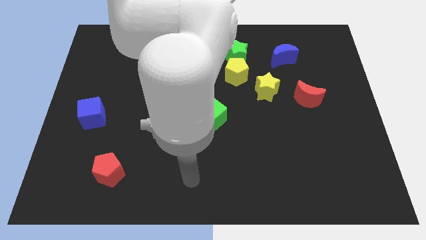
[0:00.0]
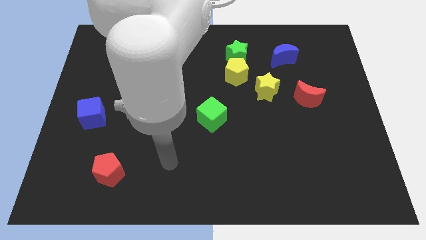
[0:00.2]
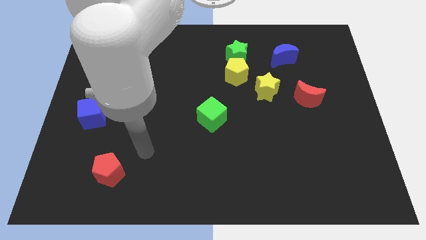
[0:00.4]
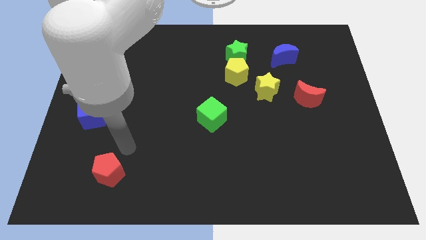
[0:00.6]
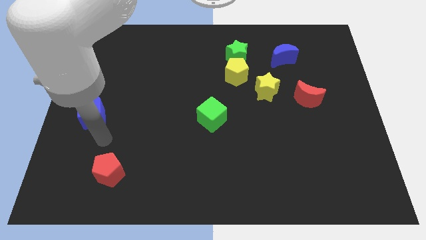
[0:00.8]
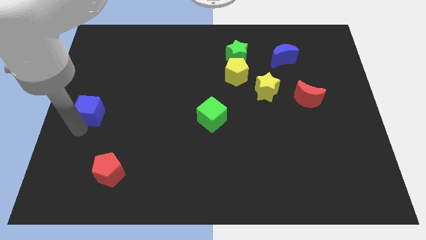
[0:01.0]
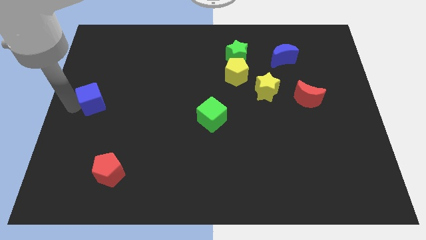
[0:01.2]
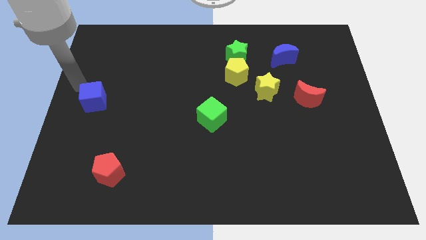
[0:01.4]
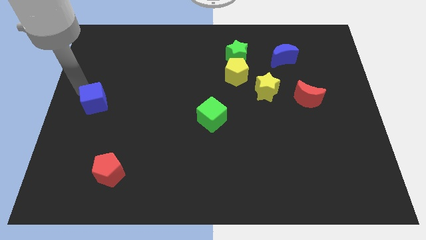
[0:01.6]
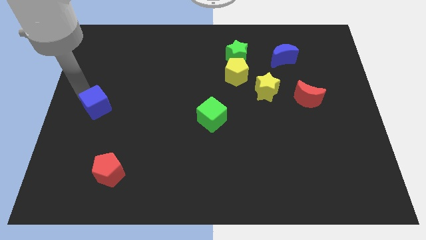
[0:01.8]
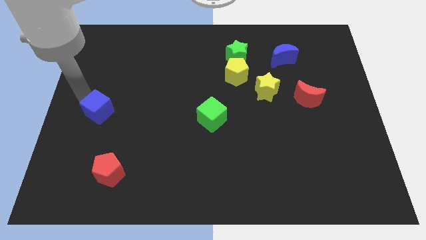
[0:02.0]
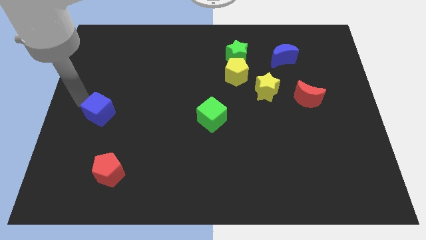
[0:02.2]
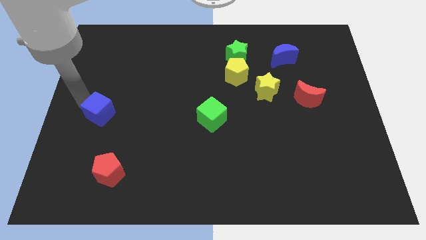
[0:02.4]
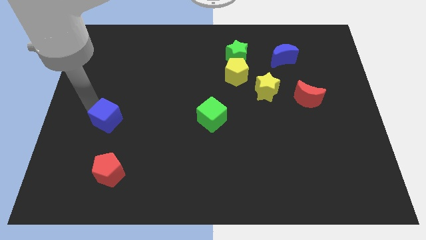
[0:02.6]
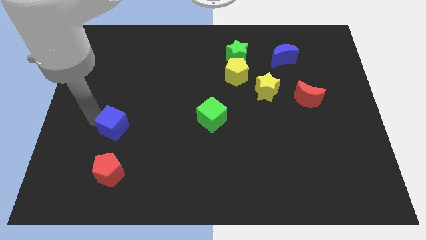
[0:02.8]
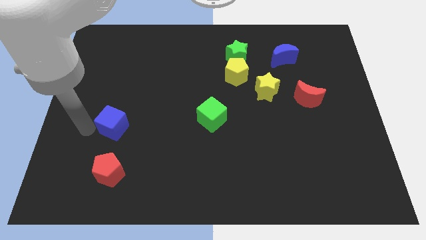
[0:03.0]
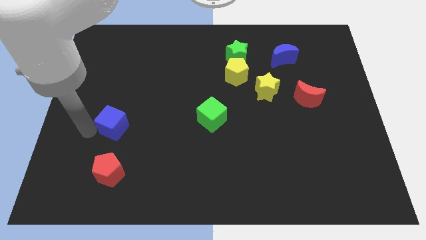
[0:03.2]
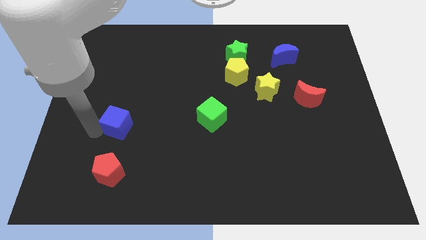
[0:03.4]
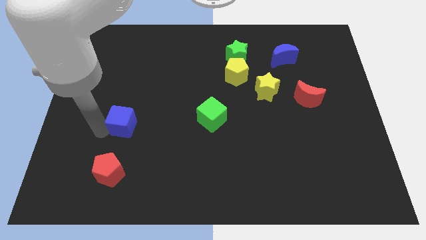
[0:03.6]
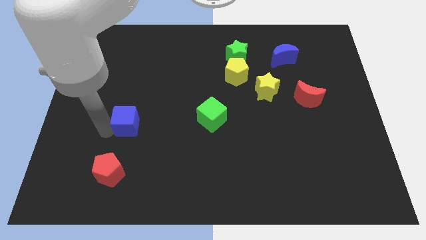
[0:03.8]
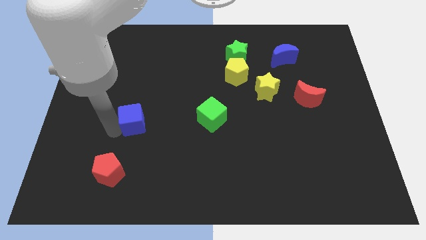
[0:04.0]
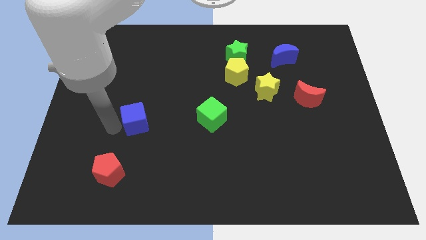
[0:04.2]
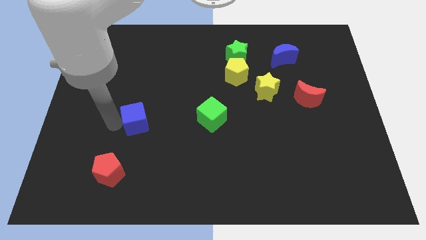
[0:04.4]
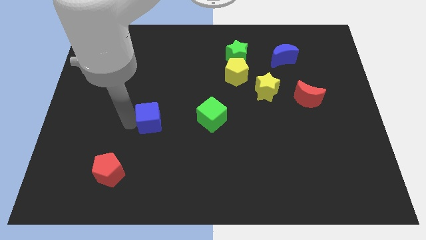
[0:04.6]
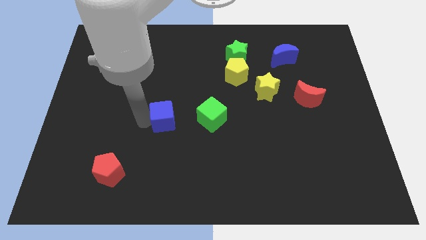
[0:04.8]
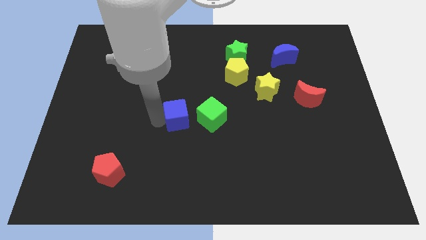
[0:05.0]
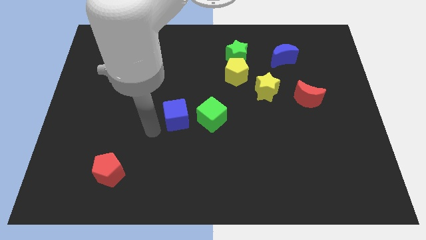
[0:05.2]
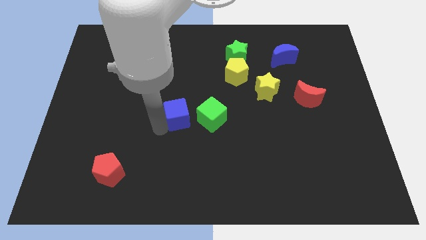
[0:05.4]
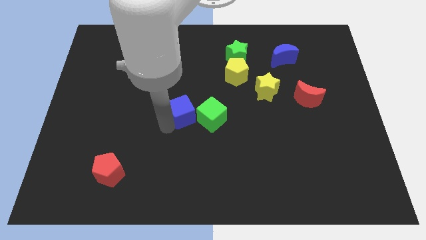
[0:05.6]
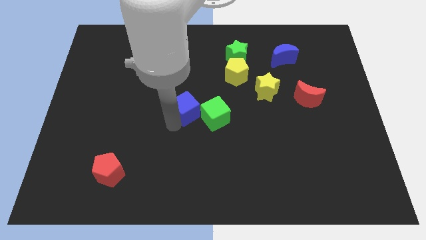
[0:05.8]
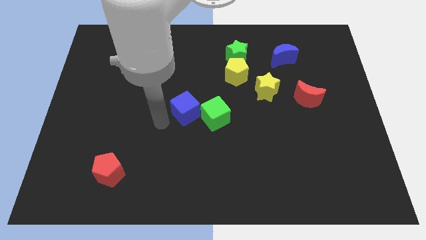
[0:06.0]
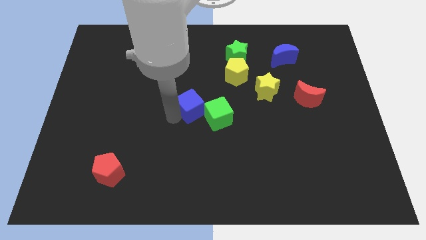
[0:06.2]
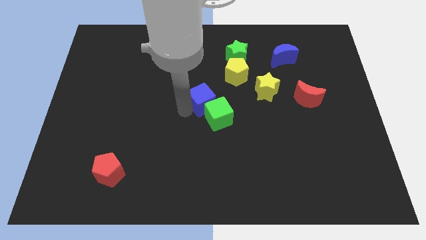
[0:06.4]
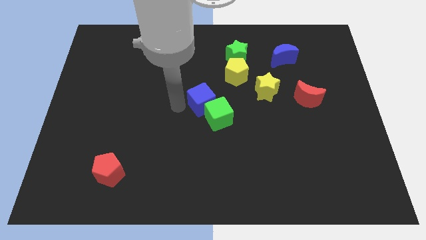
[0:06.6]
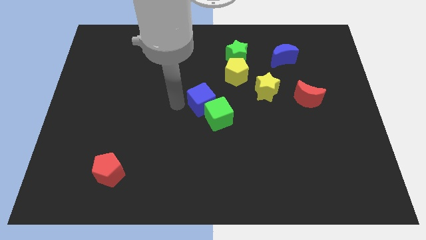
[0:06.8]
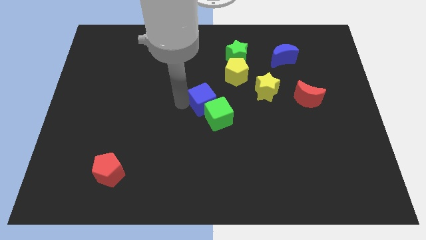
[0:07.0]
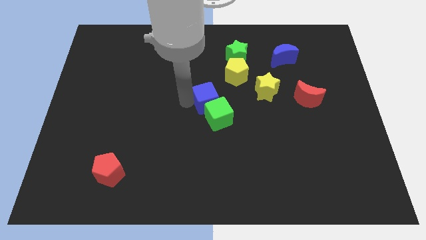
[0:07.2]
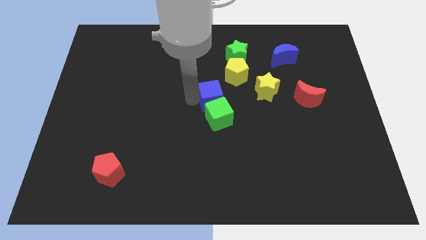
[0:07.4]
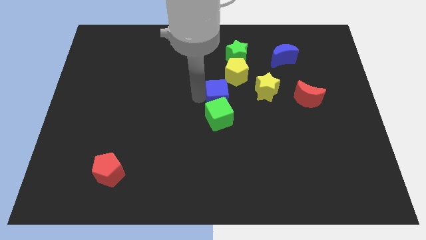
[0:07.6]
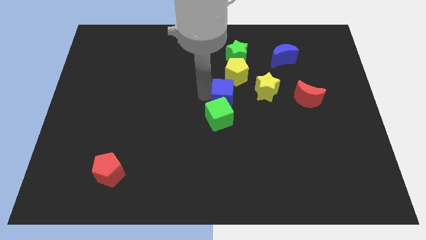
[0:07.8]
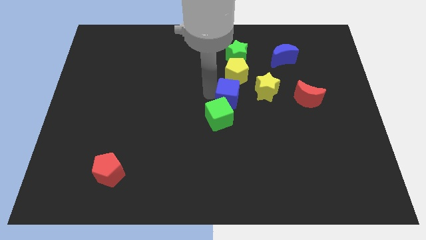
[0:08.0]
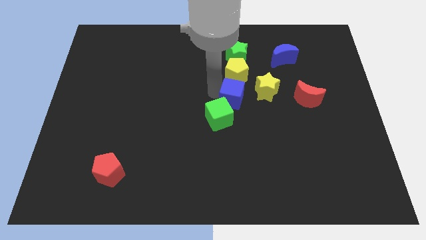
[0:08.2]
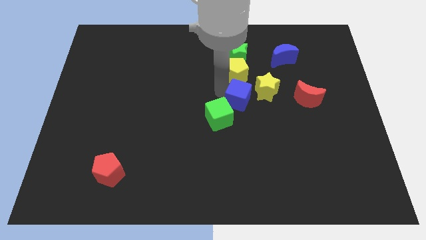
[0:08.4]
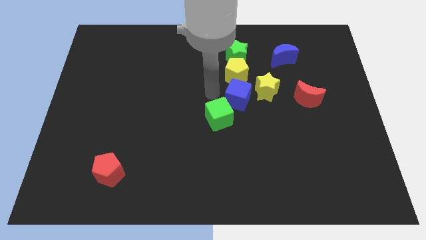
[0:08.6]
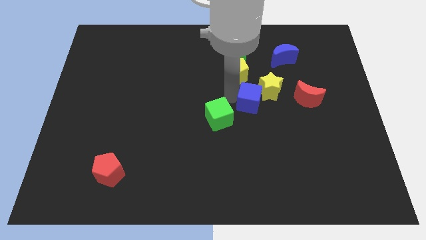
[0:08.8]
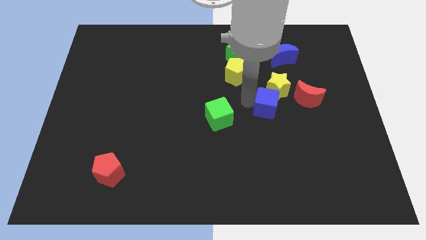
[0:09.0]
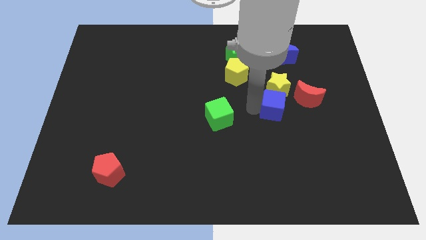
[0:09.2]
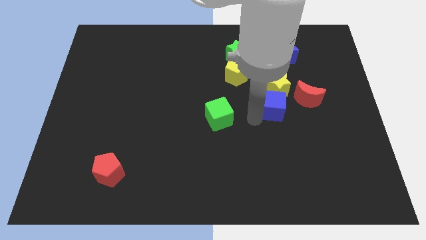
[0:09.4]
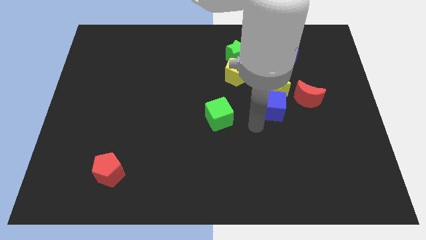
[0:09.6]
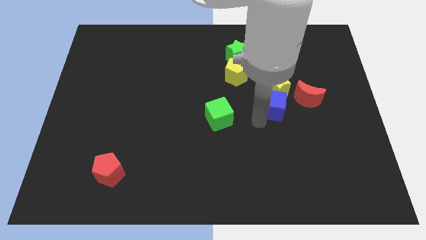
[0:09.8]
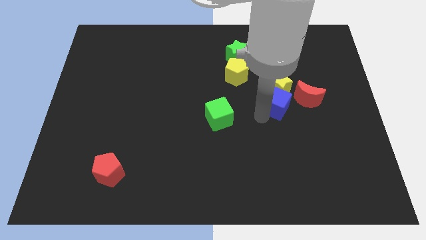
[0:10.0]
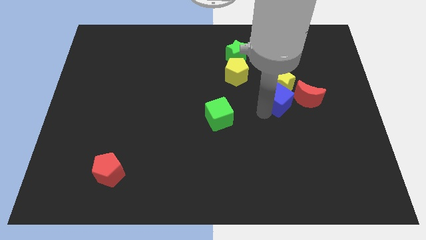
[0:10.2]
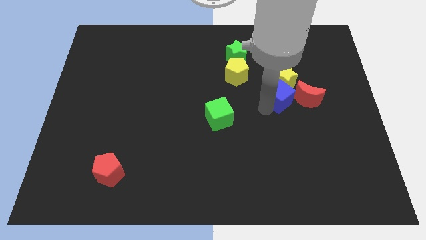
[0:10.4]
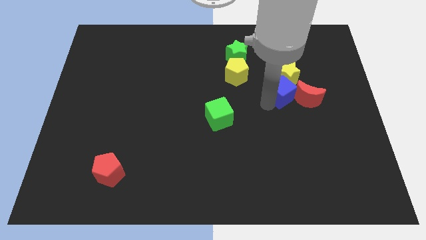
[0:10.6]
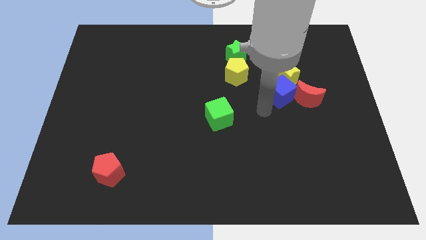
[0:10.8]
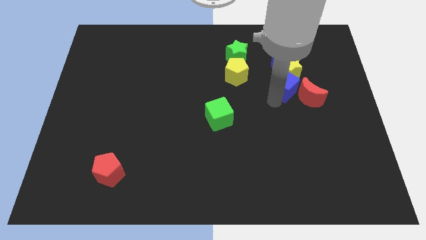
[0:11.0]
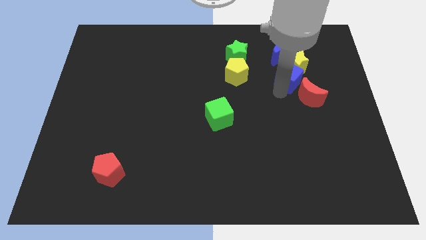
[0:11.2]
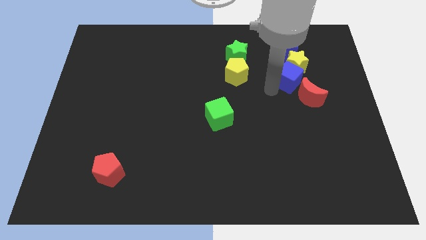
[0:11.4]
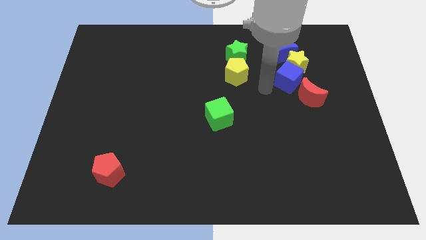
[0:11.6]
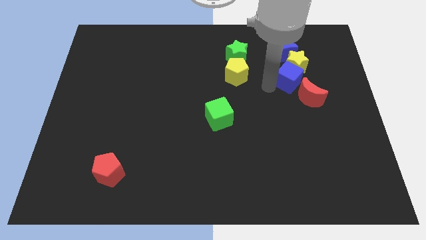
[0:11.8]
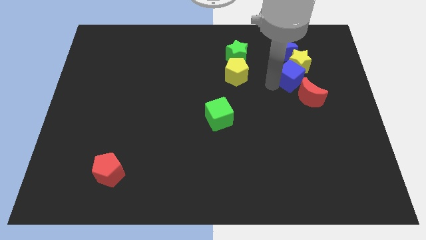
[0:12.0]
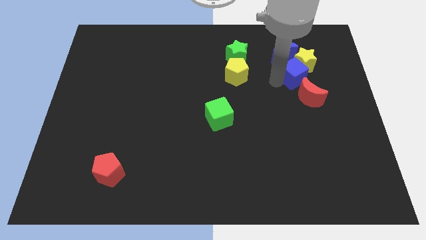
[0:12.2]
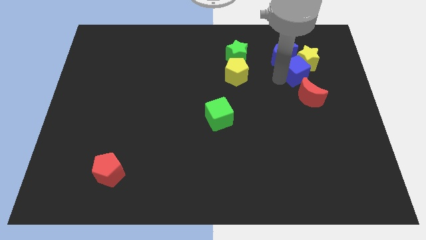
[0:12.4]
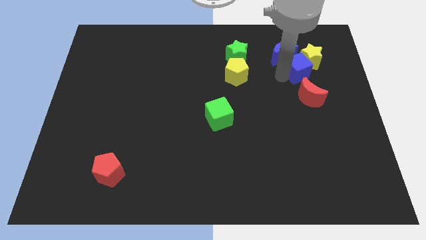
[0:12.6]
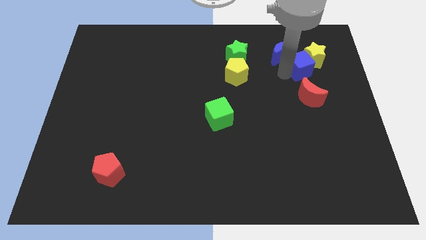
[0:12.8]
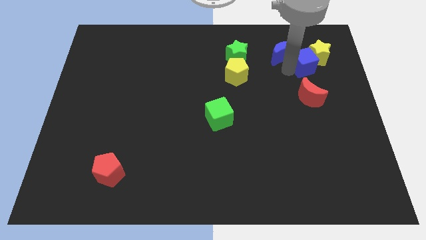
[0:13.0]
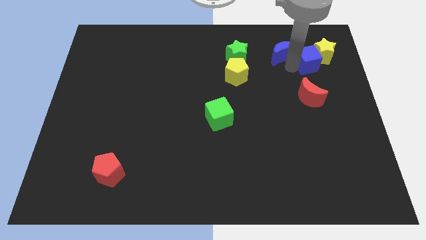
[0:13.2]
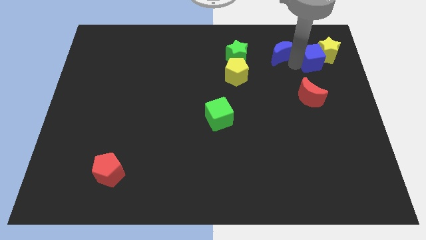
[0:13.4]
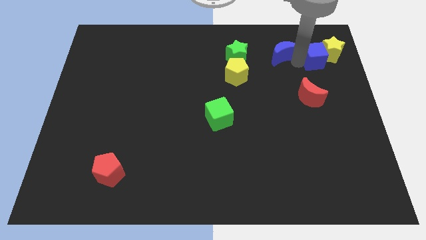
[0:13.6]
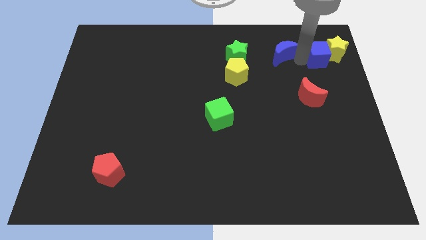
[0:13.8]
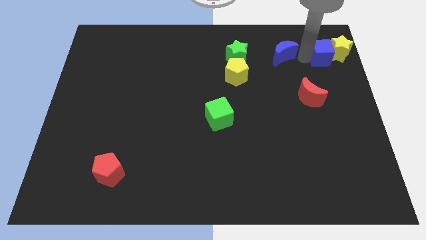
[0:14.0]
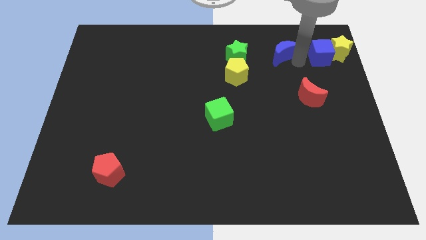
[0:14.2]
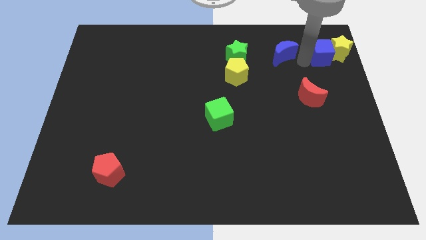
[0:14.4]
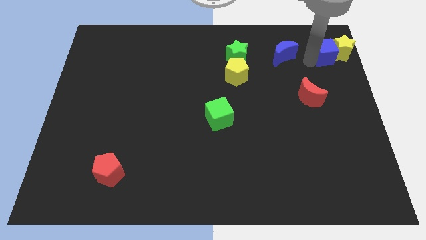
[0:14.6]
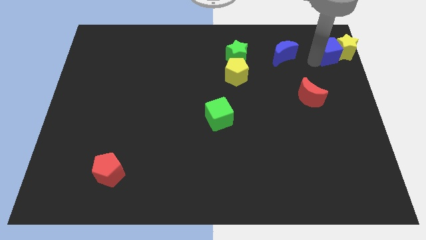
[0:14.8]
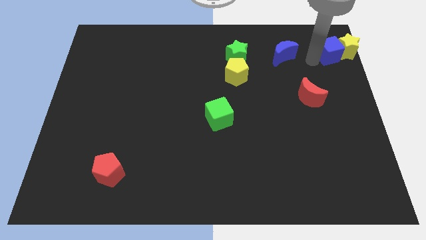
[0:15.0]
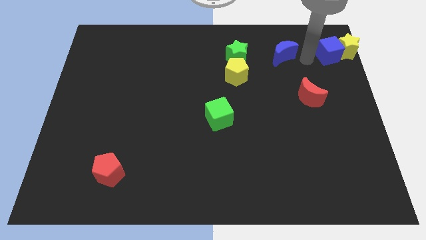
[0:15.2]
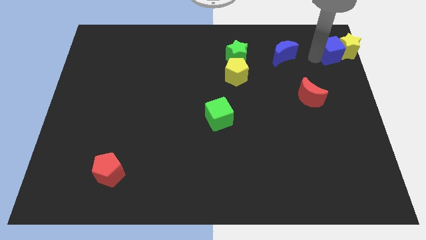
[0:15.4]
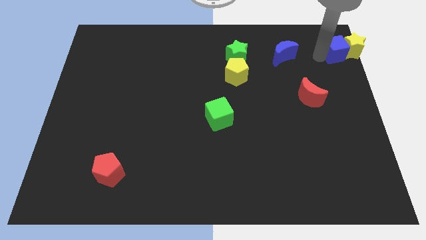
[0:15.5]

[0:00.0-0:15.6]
slide the blue cube to the upper right corner
